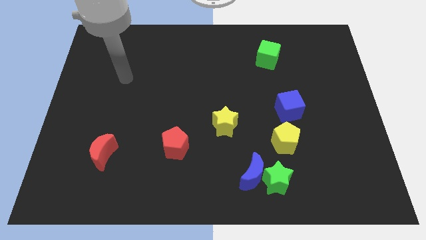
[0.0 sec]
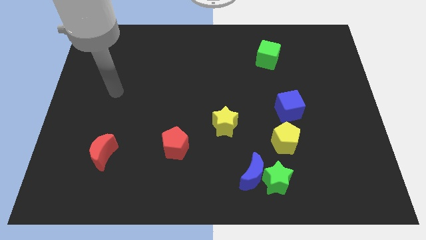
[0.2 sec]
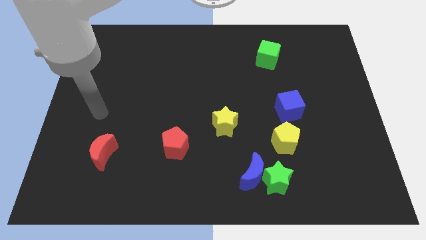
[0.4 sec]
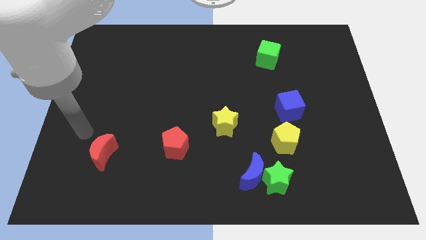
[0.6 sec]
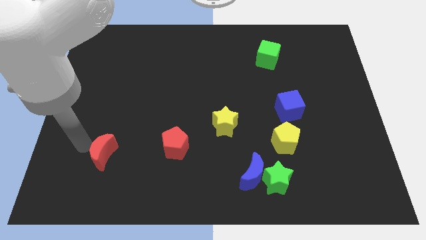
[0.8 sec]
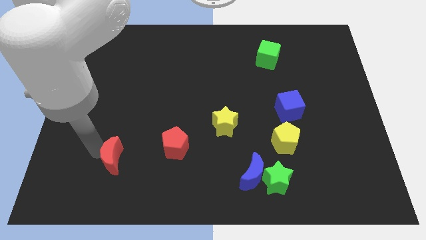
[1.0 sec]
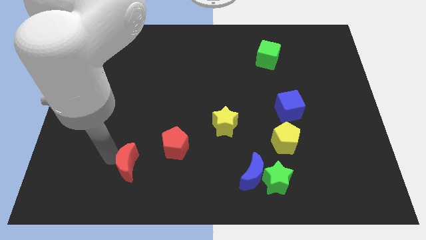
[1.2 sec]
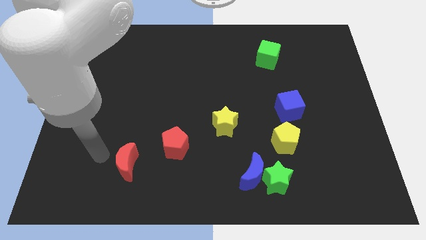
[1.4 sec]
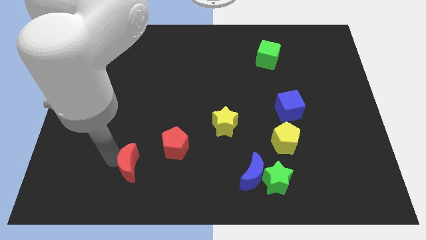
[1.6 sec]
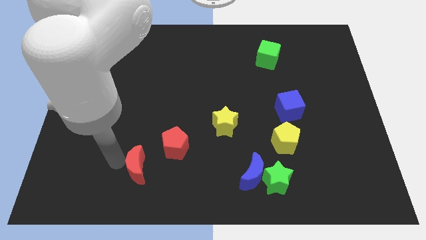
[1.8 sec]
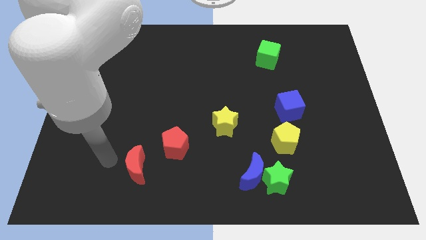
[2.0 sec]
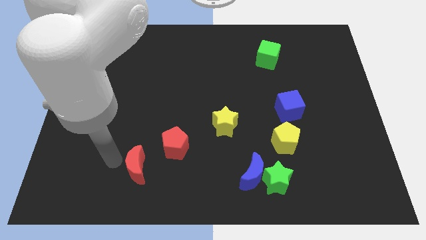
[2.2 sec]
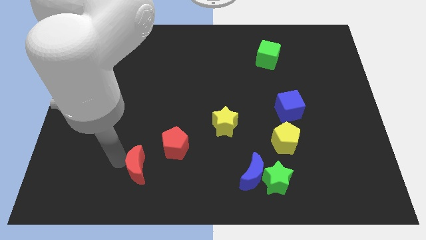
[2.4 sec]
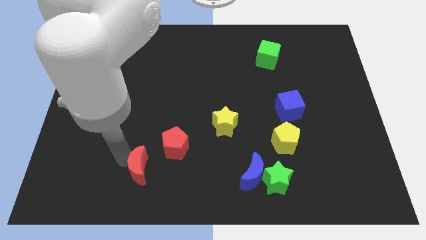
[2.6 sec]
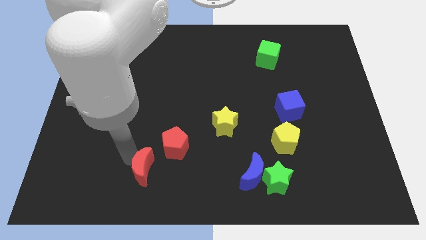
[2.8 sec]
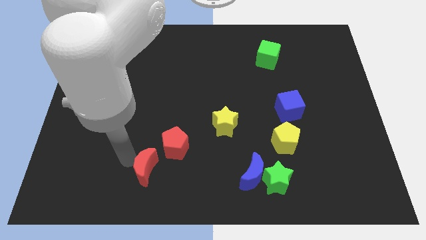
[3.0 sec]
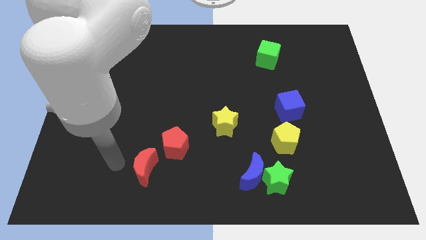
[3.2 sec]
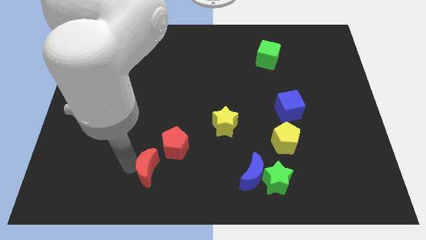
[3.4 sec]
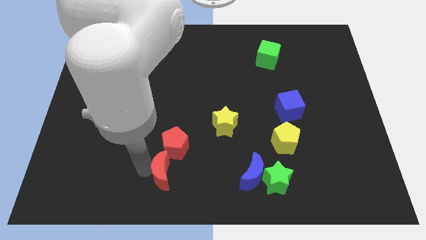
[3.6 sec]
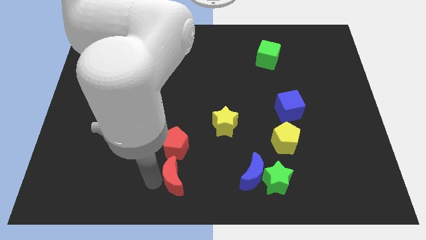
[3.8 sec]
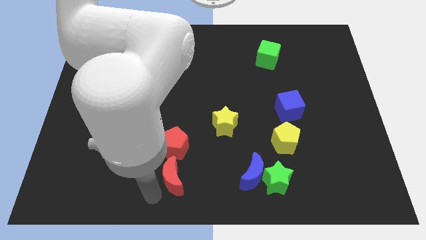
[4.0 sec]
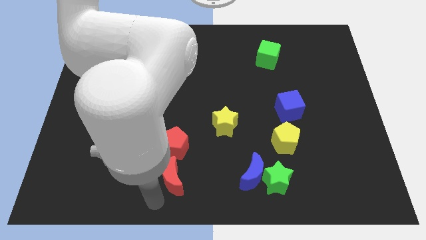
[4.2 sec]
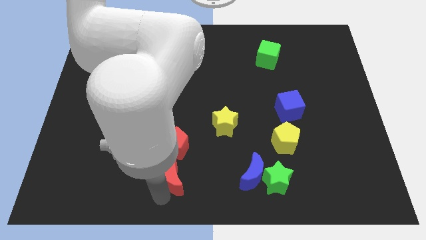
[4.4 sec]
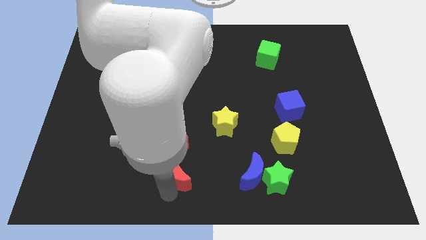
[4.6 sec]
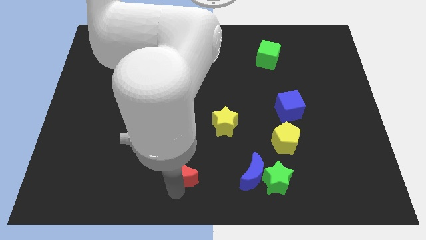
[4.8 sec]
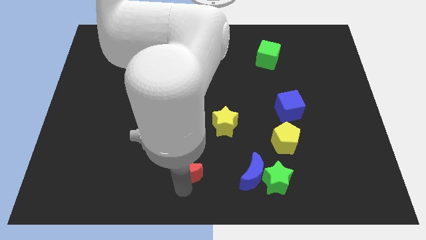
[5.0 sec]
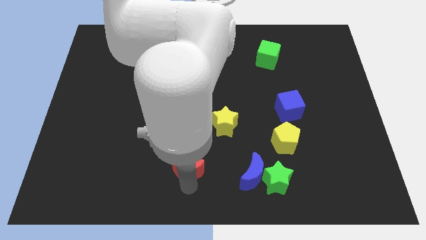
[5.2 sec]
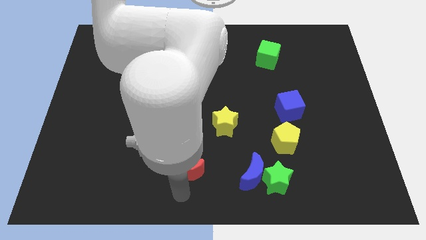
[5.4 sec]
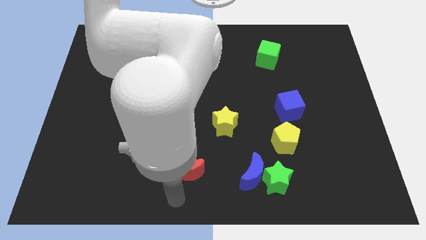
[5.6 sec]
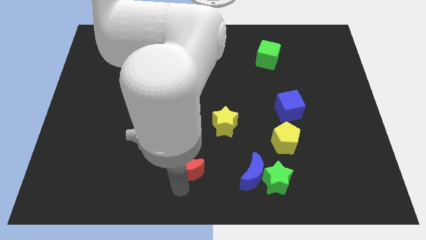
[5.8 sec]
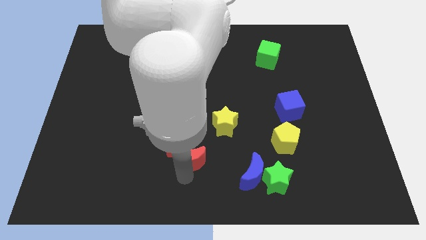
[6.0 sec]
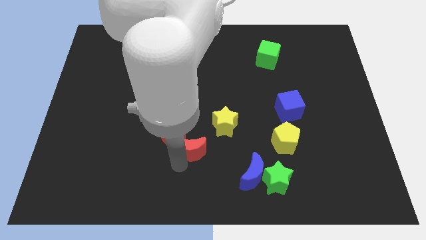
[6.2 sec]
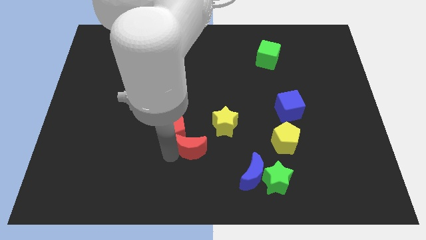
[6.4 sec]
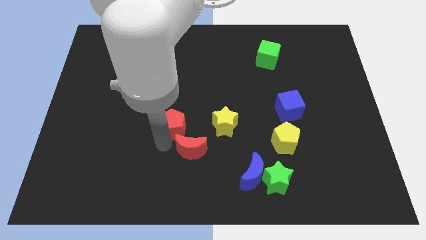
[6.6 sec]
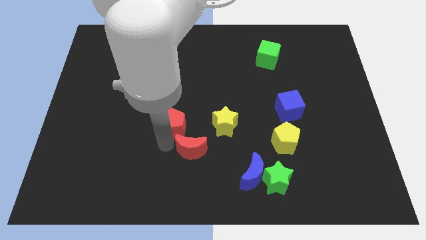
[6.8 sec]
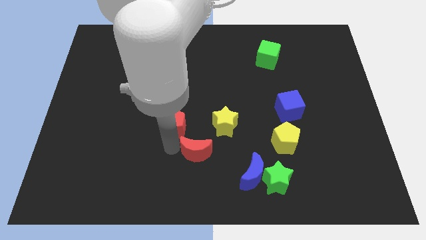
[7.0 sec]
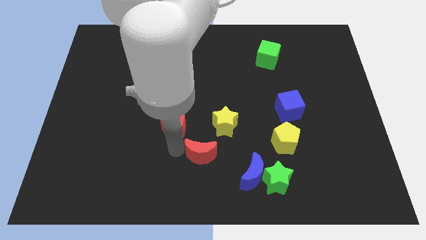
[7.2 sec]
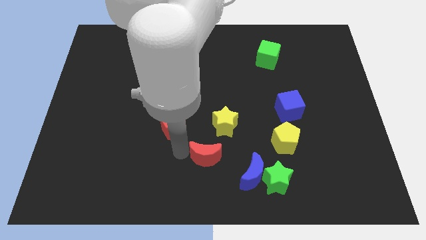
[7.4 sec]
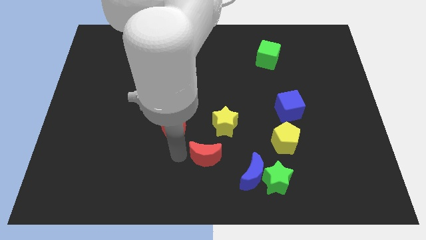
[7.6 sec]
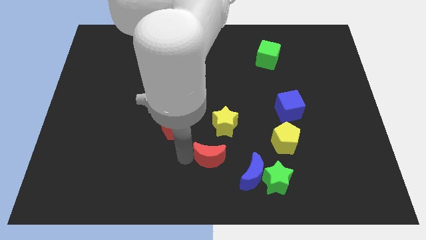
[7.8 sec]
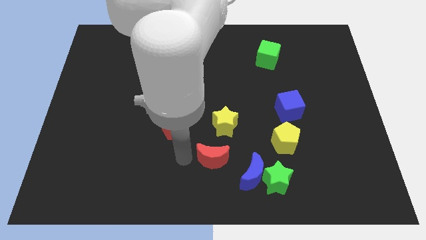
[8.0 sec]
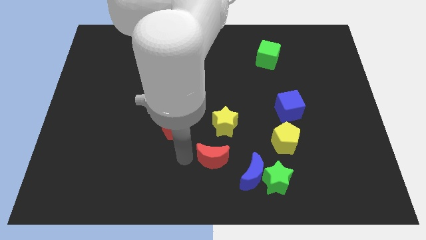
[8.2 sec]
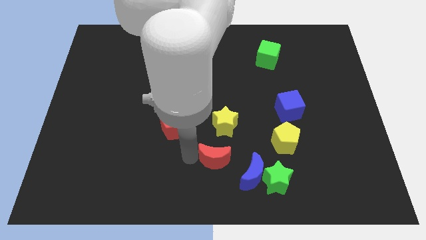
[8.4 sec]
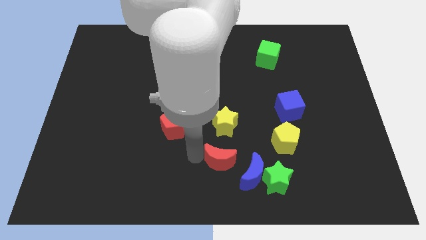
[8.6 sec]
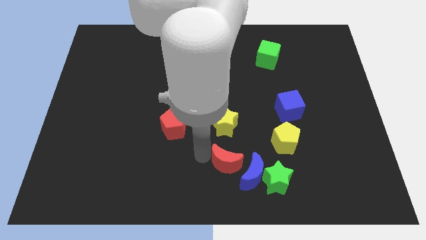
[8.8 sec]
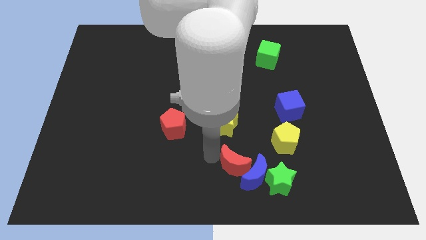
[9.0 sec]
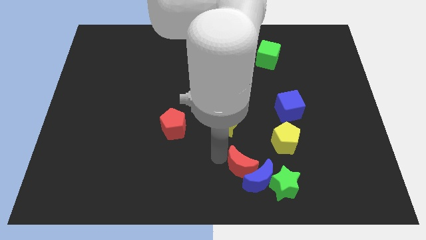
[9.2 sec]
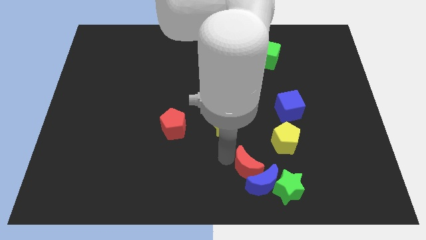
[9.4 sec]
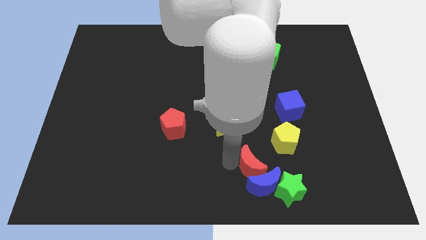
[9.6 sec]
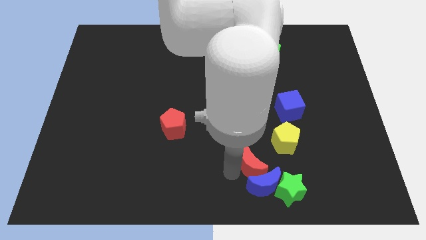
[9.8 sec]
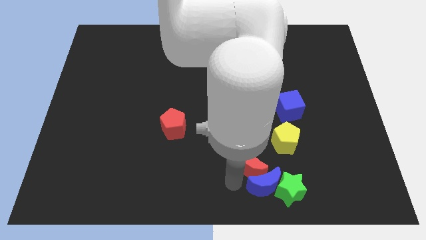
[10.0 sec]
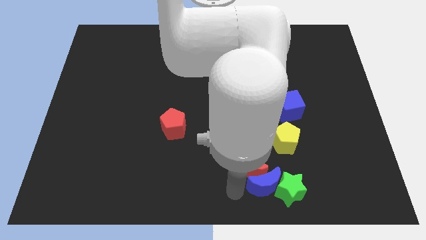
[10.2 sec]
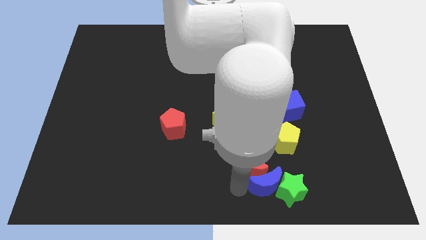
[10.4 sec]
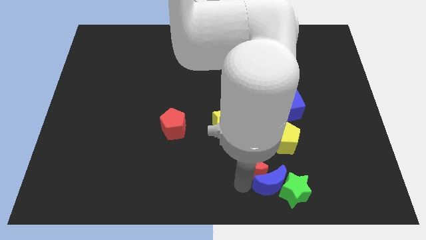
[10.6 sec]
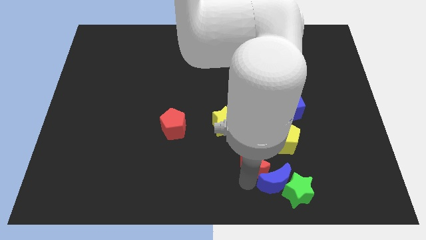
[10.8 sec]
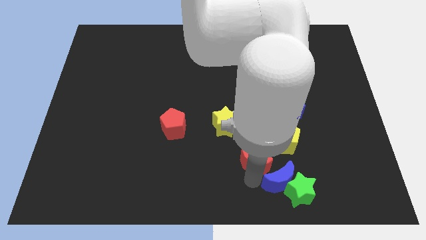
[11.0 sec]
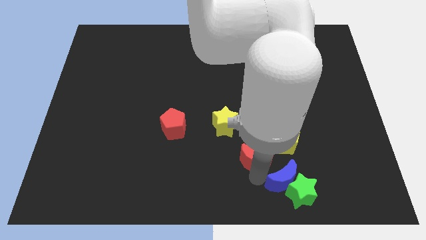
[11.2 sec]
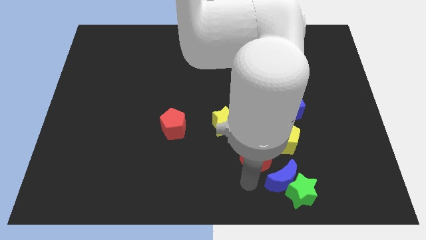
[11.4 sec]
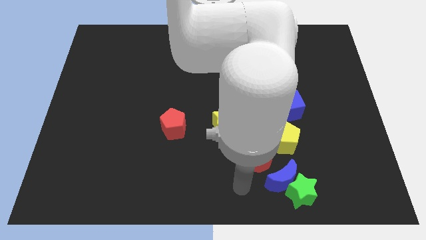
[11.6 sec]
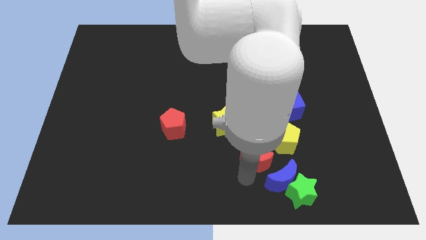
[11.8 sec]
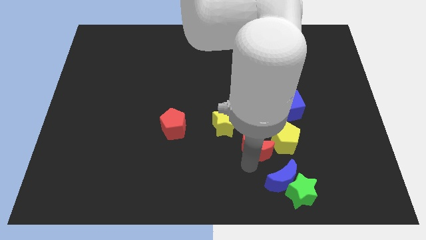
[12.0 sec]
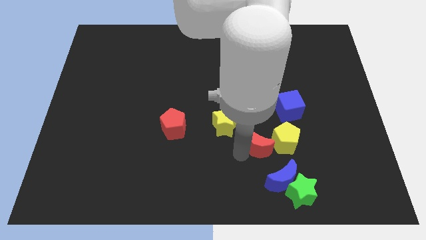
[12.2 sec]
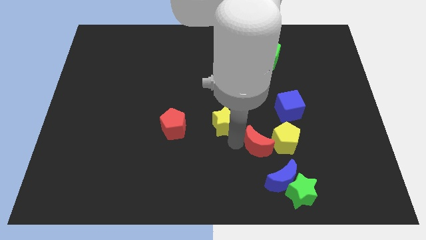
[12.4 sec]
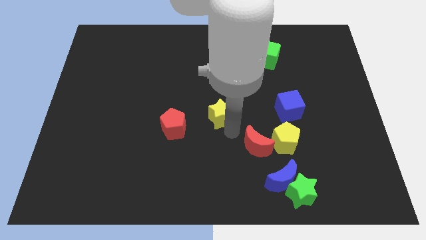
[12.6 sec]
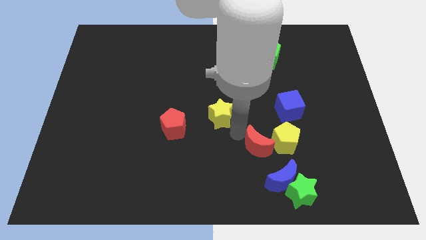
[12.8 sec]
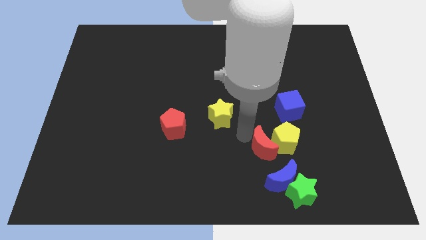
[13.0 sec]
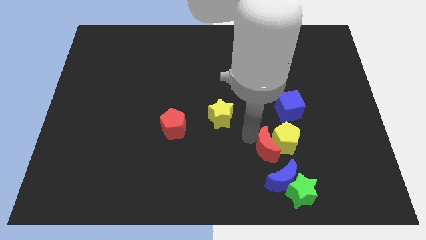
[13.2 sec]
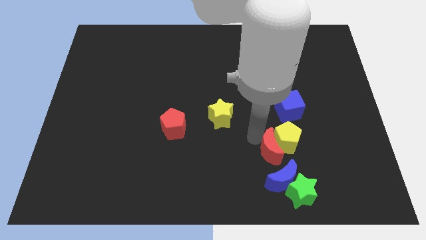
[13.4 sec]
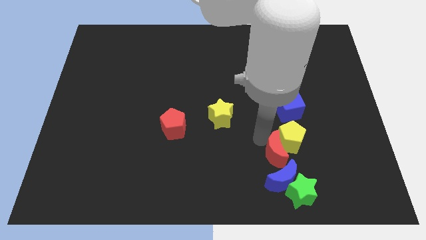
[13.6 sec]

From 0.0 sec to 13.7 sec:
push the red moon to the bottom side of the blue cube
